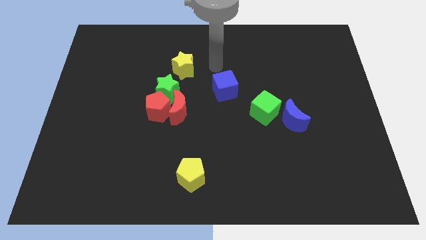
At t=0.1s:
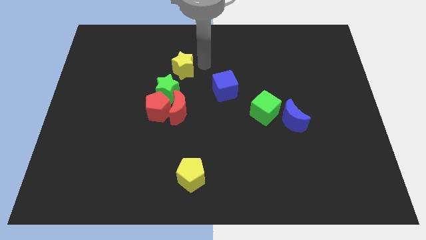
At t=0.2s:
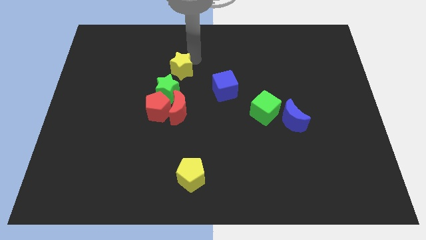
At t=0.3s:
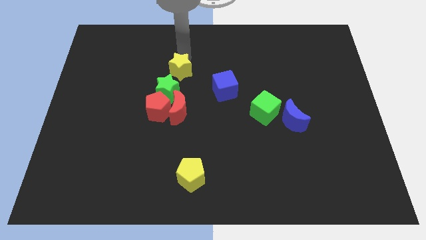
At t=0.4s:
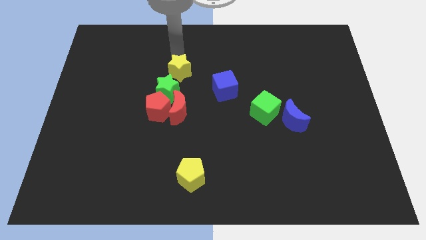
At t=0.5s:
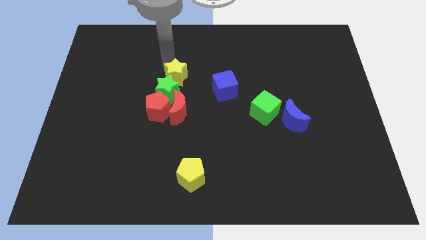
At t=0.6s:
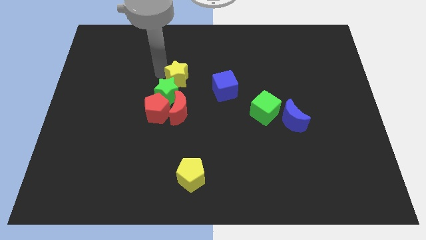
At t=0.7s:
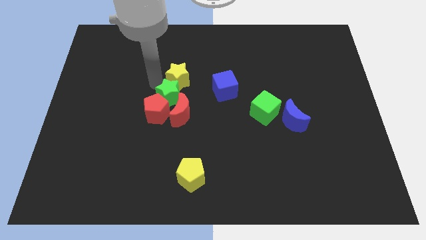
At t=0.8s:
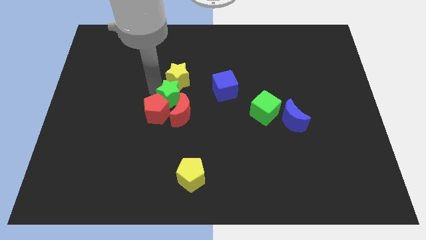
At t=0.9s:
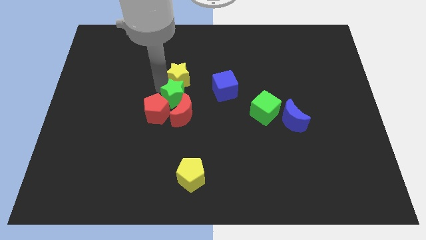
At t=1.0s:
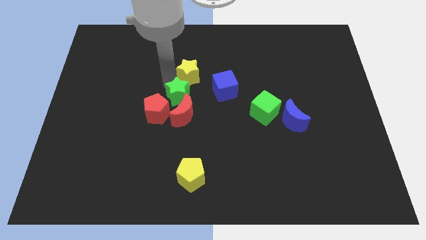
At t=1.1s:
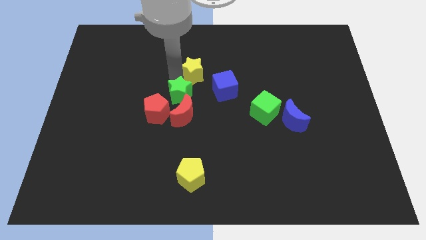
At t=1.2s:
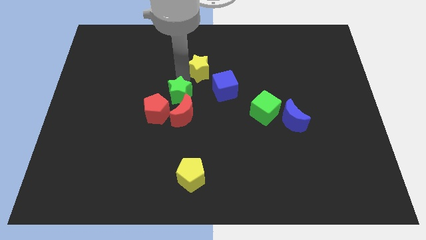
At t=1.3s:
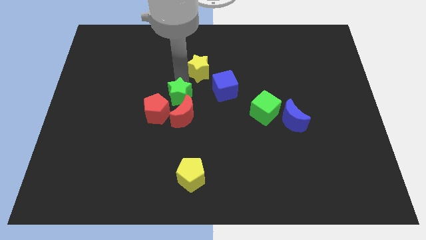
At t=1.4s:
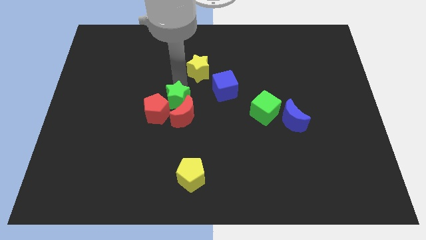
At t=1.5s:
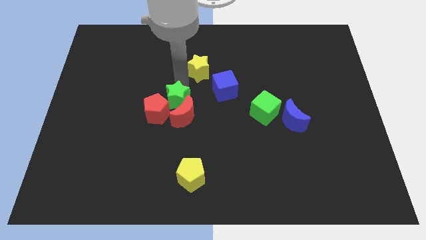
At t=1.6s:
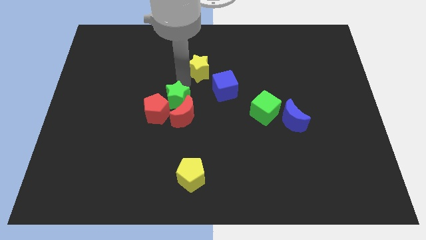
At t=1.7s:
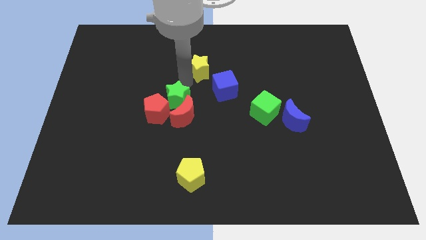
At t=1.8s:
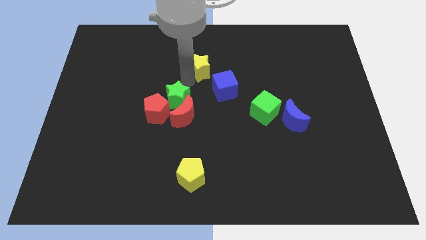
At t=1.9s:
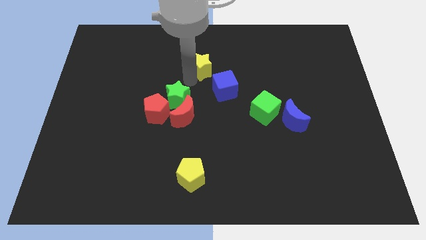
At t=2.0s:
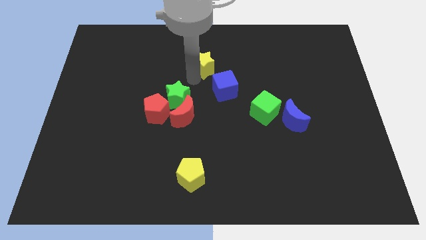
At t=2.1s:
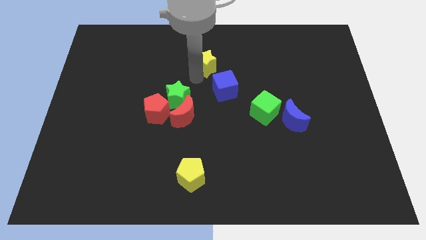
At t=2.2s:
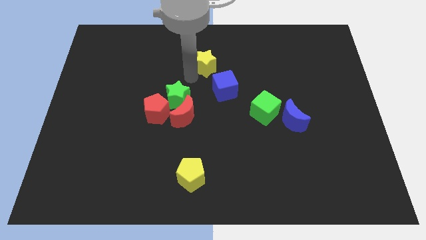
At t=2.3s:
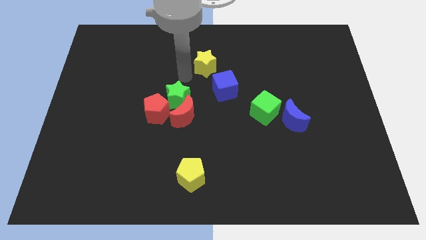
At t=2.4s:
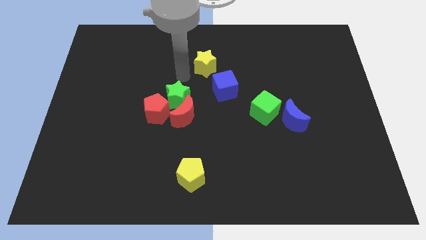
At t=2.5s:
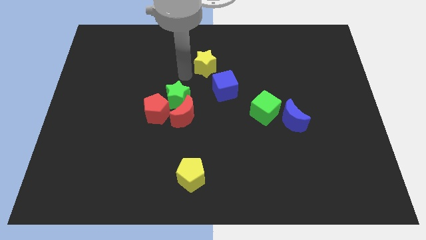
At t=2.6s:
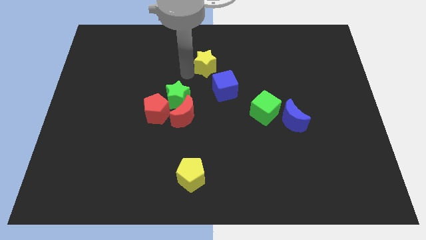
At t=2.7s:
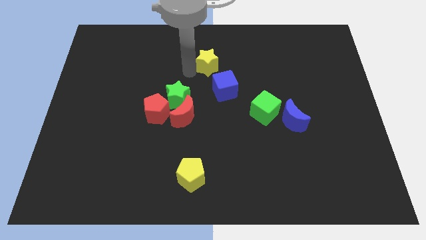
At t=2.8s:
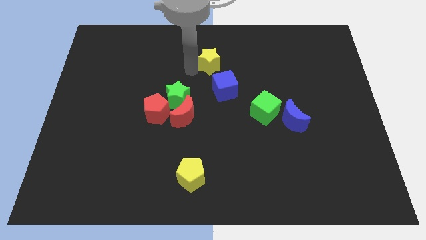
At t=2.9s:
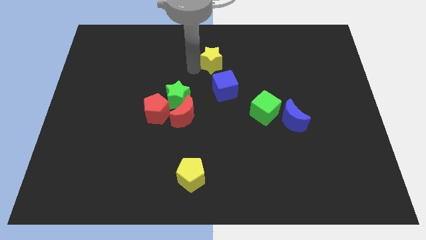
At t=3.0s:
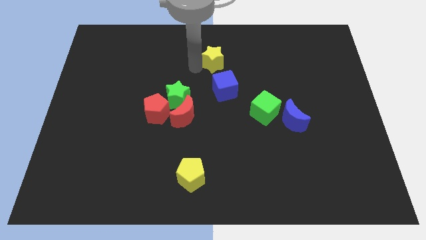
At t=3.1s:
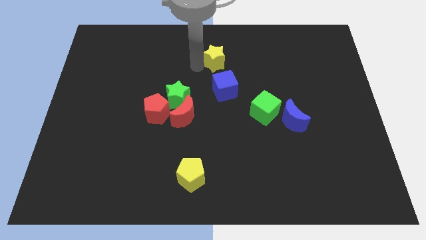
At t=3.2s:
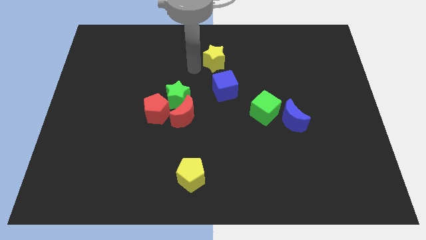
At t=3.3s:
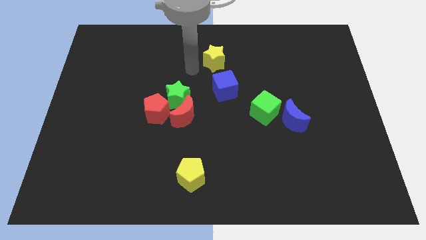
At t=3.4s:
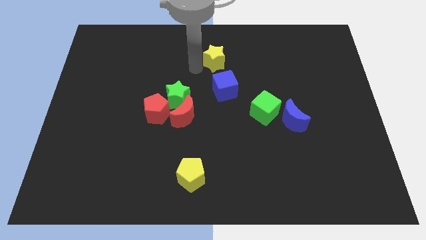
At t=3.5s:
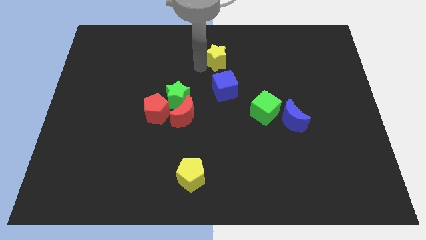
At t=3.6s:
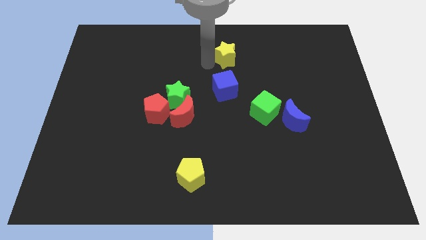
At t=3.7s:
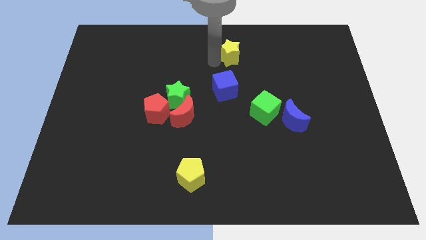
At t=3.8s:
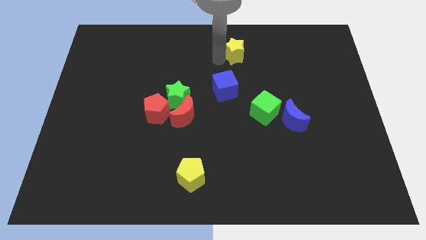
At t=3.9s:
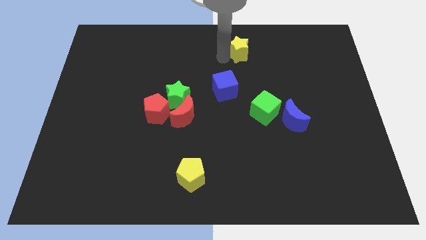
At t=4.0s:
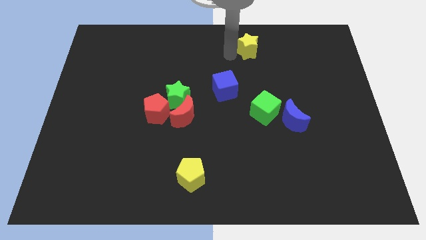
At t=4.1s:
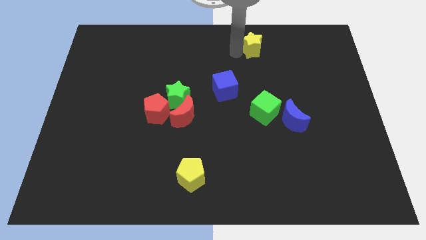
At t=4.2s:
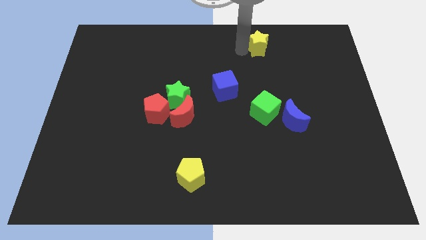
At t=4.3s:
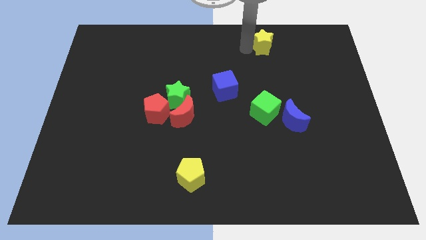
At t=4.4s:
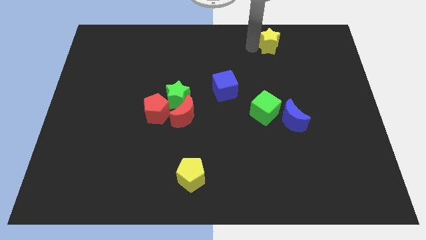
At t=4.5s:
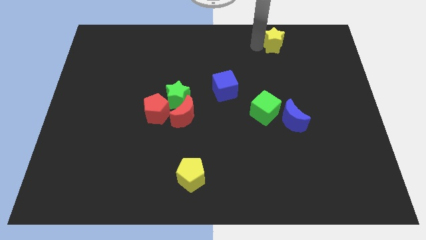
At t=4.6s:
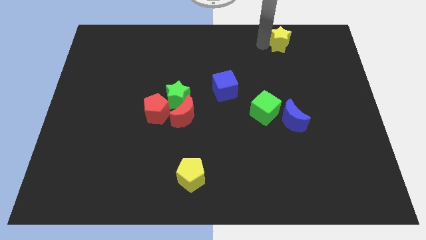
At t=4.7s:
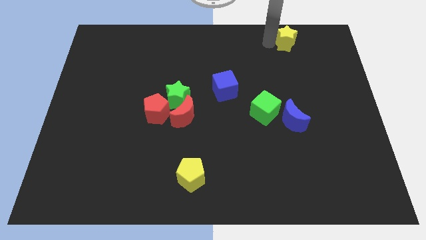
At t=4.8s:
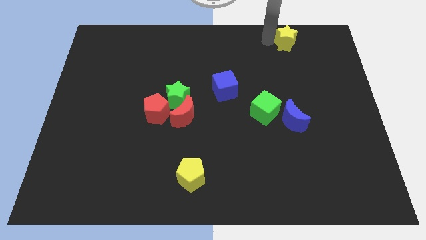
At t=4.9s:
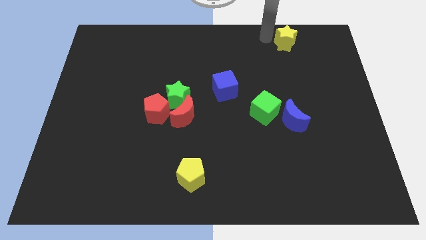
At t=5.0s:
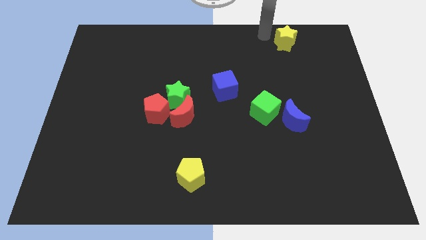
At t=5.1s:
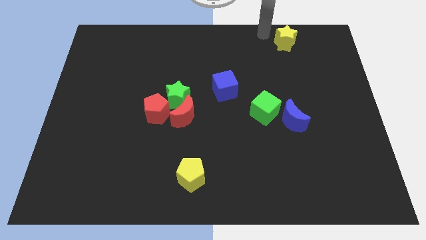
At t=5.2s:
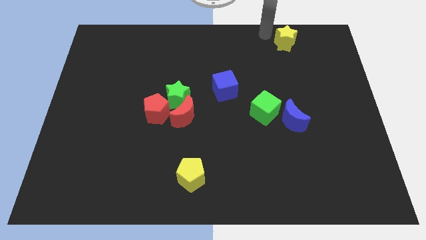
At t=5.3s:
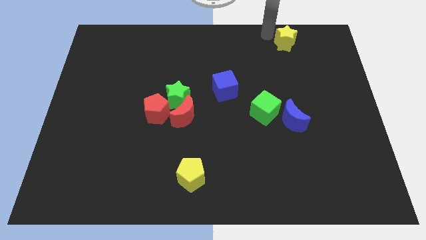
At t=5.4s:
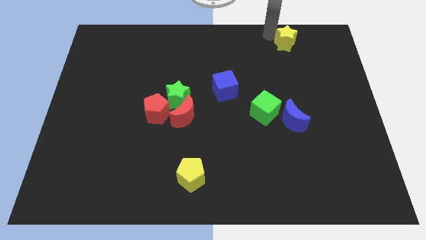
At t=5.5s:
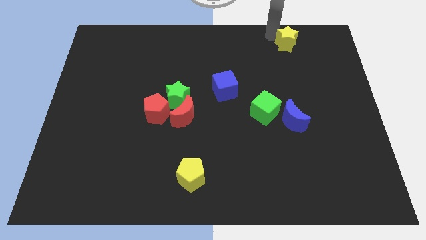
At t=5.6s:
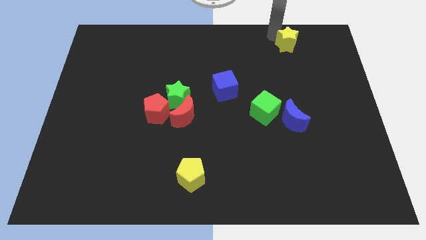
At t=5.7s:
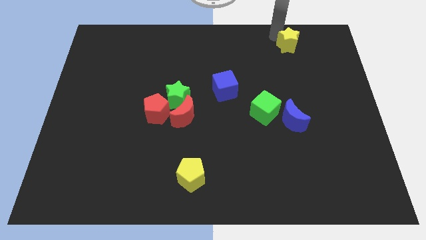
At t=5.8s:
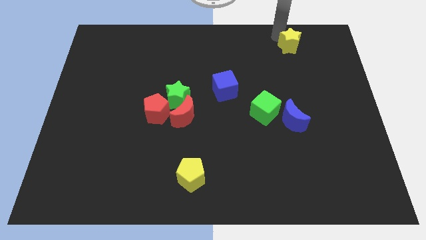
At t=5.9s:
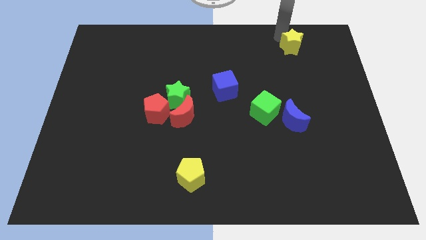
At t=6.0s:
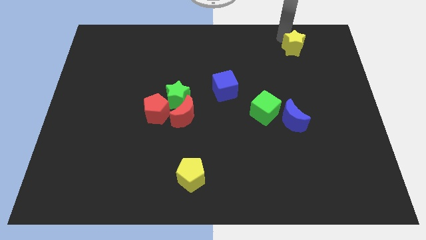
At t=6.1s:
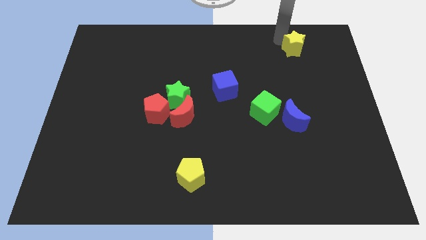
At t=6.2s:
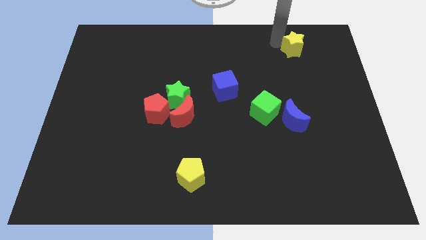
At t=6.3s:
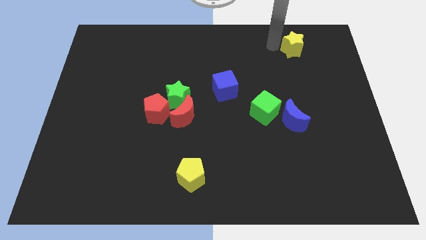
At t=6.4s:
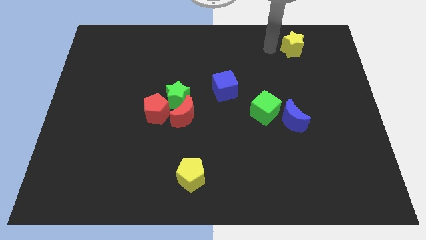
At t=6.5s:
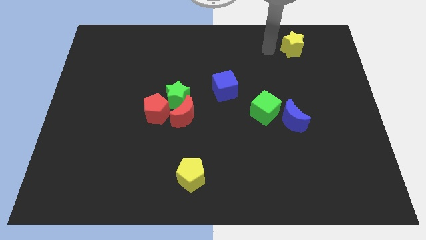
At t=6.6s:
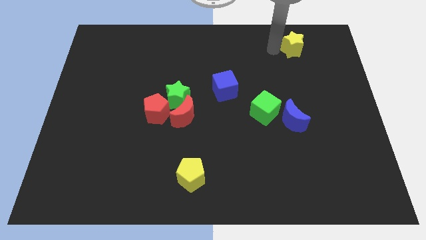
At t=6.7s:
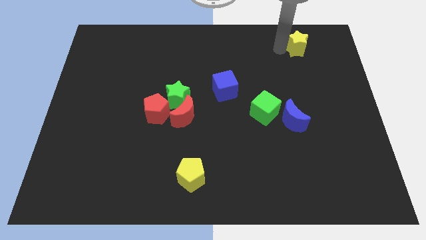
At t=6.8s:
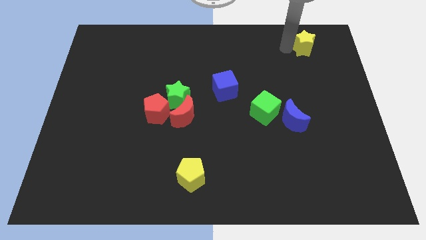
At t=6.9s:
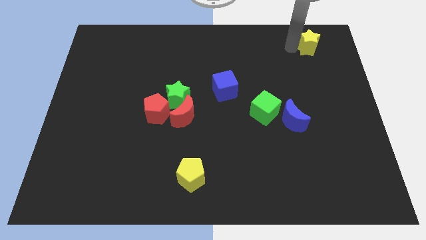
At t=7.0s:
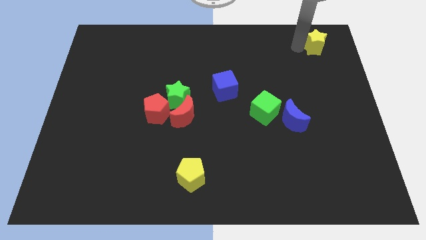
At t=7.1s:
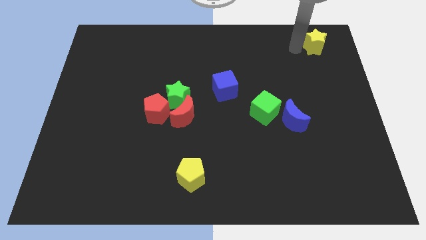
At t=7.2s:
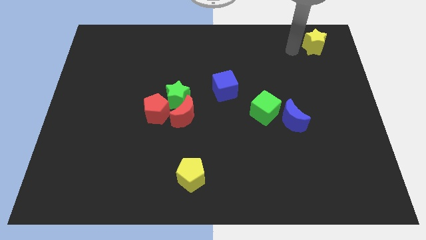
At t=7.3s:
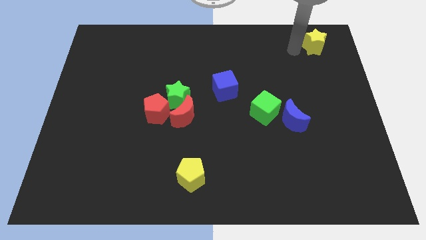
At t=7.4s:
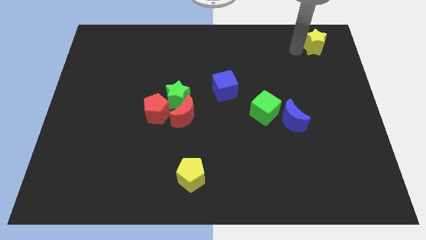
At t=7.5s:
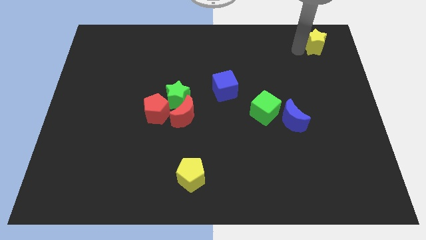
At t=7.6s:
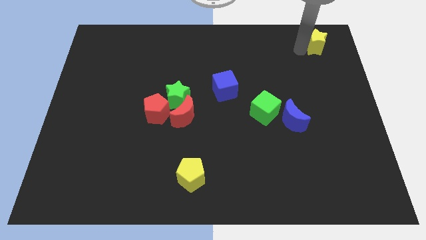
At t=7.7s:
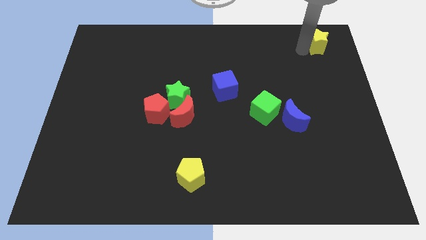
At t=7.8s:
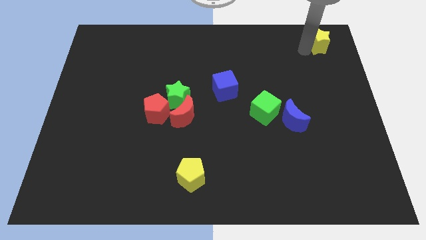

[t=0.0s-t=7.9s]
slide the yellow star to the top right
